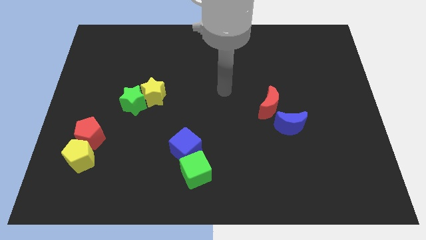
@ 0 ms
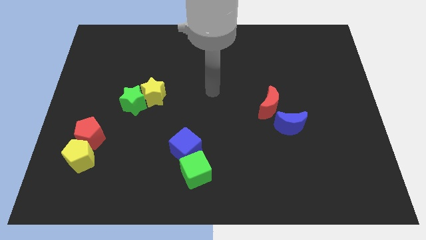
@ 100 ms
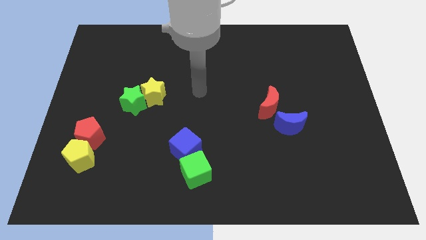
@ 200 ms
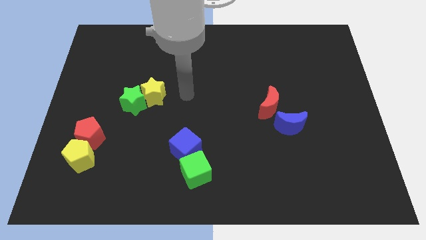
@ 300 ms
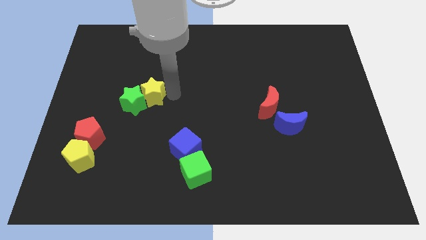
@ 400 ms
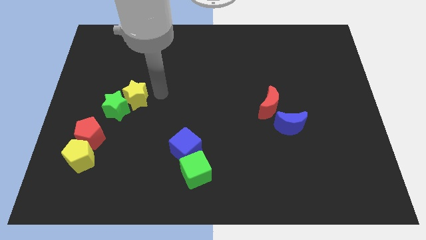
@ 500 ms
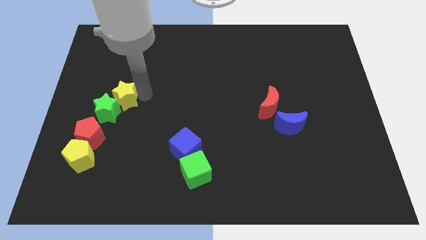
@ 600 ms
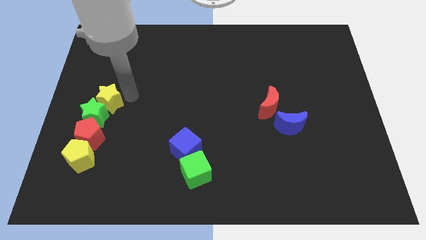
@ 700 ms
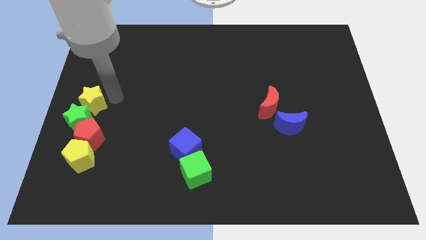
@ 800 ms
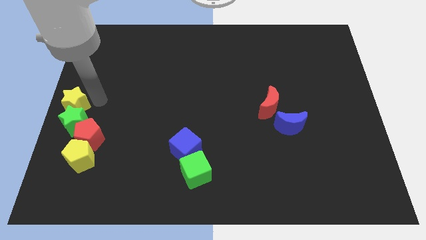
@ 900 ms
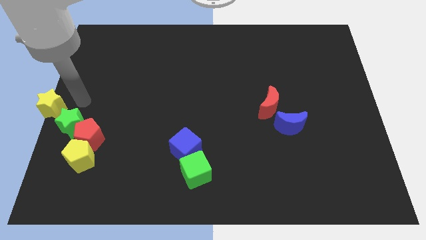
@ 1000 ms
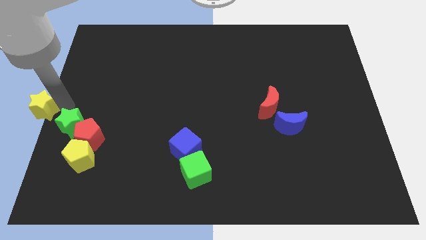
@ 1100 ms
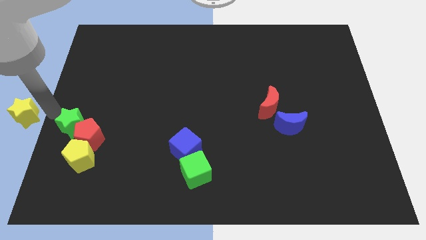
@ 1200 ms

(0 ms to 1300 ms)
move the green star away from the yellow star

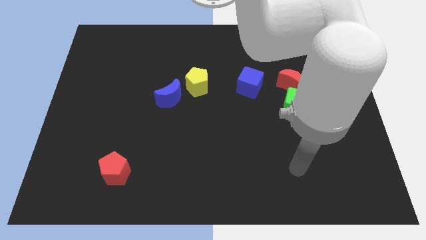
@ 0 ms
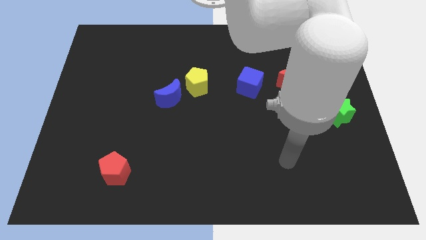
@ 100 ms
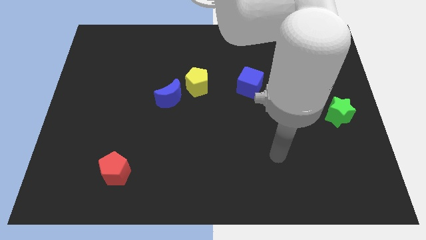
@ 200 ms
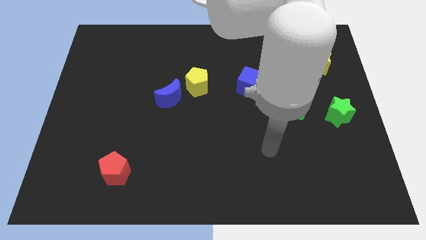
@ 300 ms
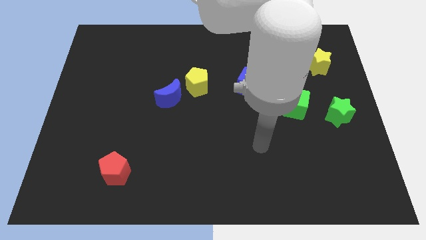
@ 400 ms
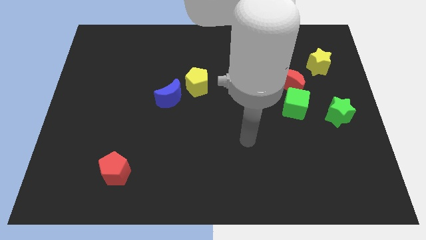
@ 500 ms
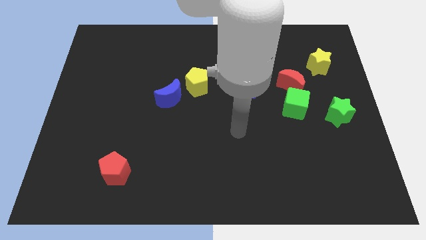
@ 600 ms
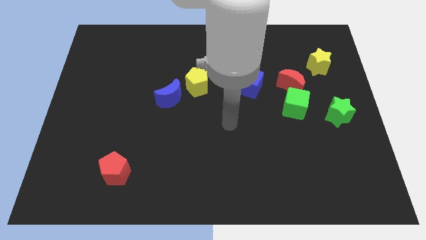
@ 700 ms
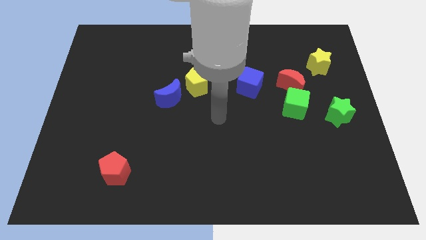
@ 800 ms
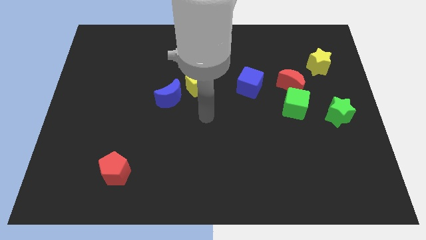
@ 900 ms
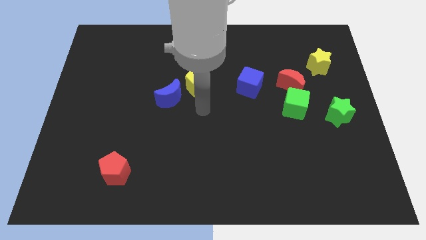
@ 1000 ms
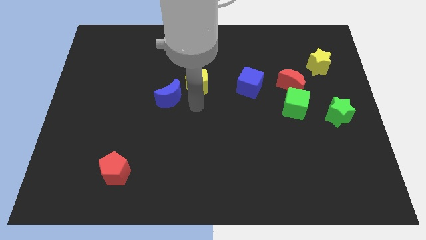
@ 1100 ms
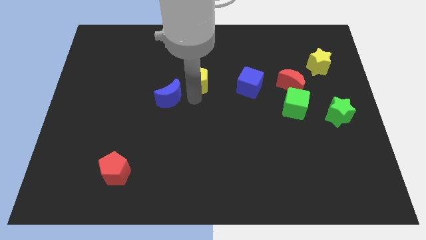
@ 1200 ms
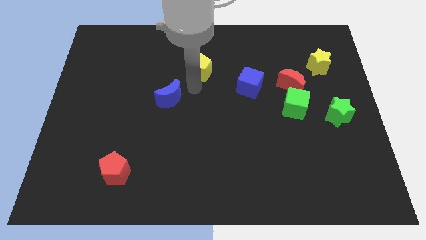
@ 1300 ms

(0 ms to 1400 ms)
pull the blue moon apart from the yellow pentagon

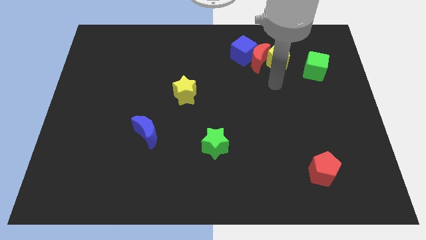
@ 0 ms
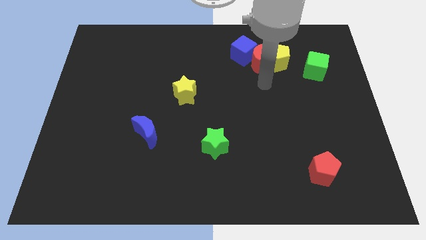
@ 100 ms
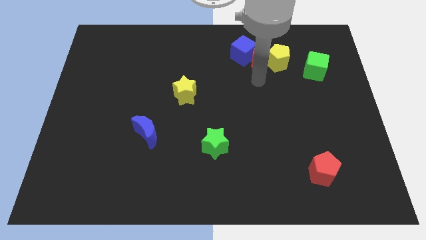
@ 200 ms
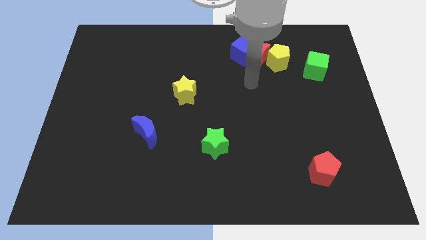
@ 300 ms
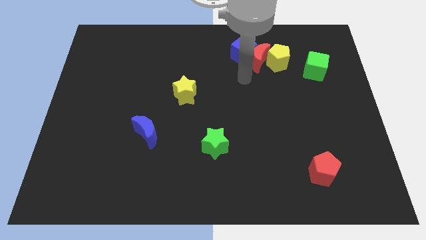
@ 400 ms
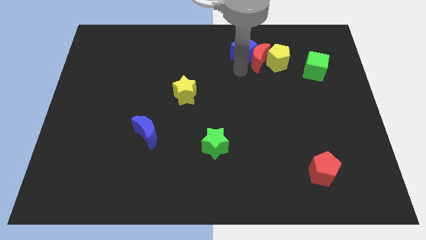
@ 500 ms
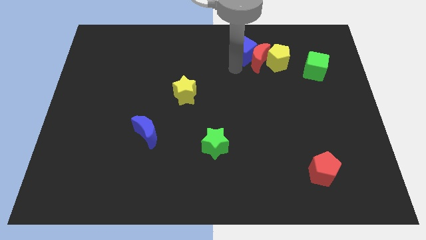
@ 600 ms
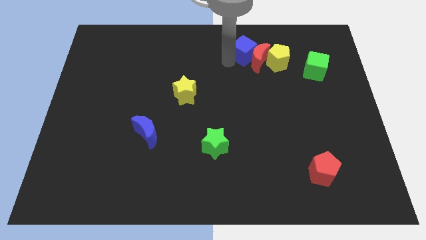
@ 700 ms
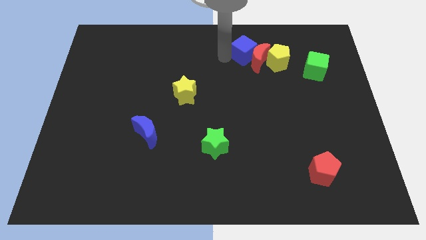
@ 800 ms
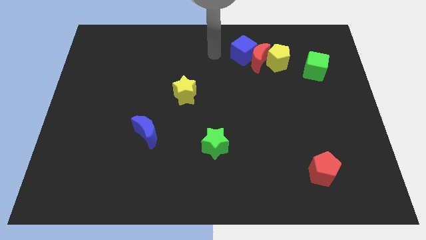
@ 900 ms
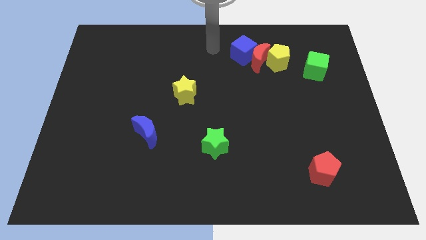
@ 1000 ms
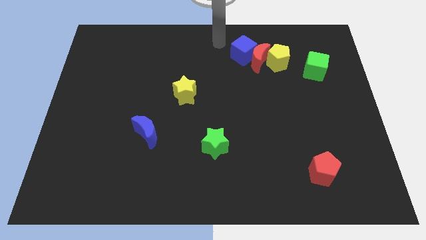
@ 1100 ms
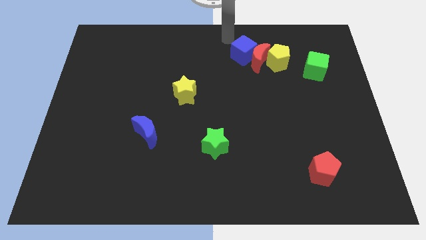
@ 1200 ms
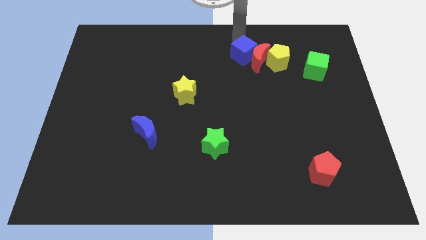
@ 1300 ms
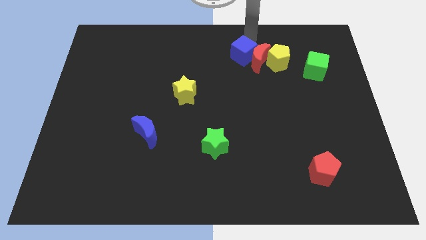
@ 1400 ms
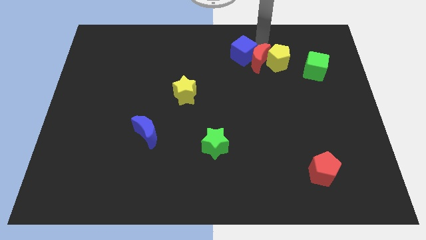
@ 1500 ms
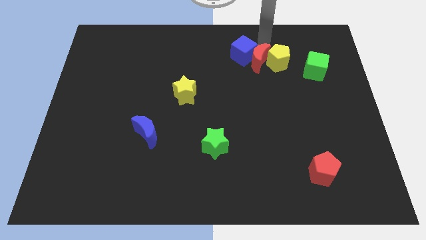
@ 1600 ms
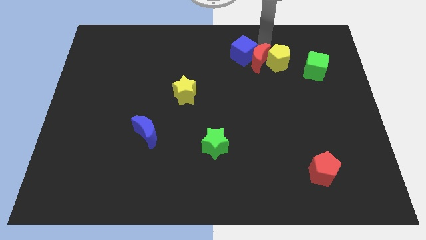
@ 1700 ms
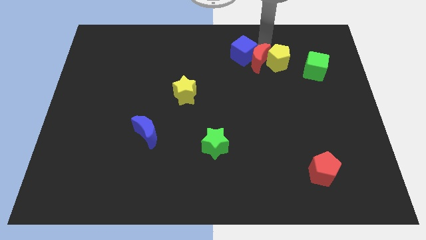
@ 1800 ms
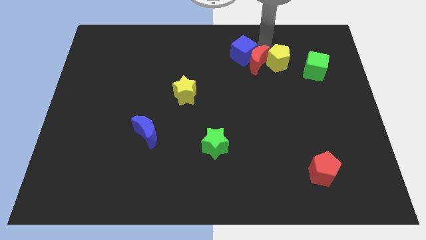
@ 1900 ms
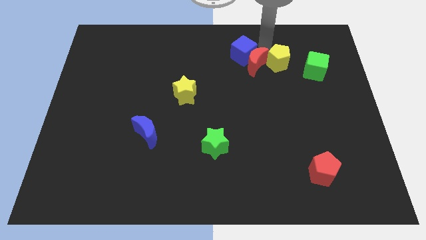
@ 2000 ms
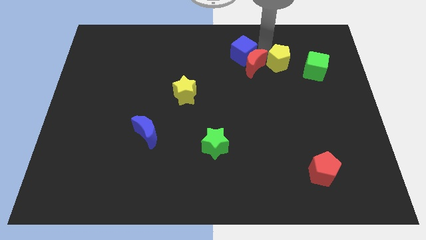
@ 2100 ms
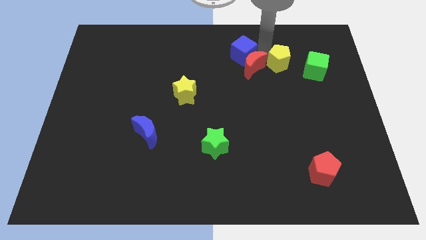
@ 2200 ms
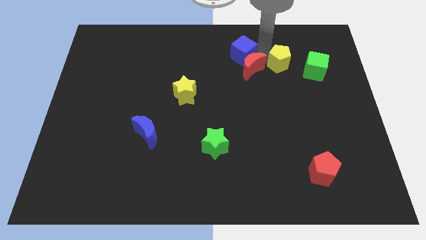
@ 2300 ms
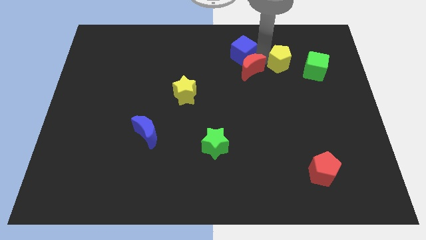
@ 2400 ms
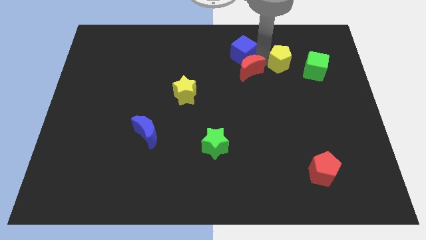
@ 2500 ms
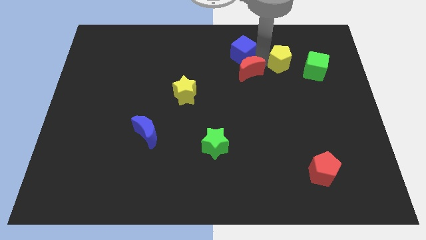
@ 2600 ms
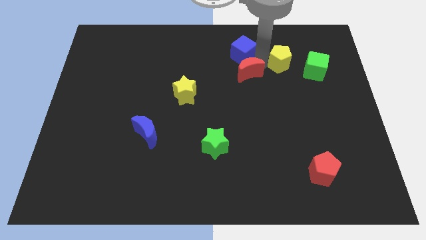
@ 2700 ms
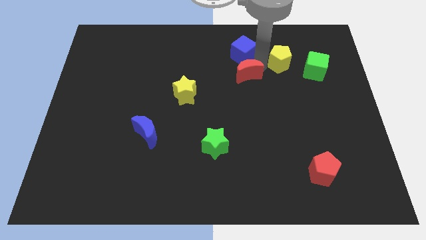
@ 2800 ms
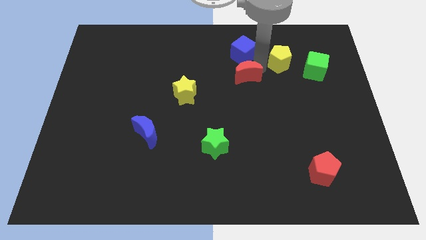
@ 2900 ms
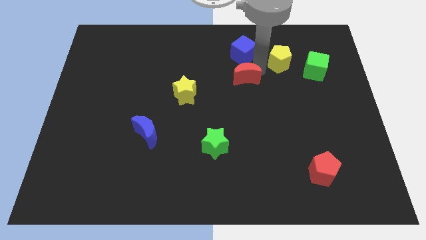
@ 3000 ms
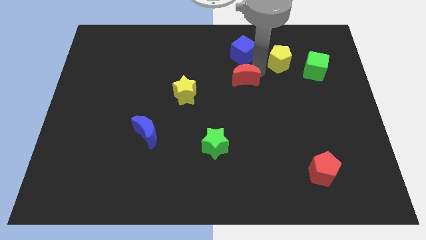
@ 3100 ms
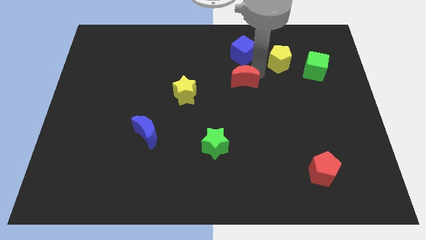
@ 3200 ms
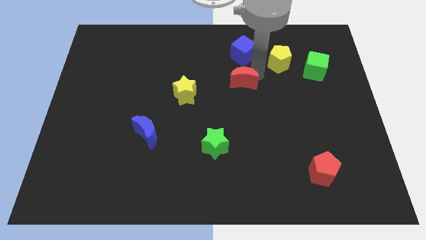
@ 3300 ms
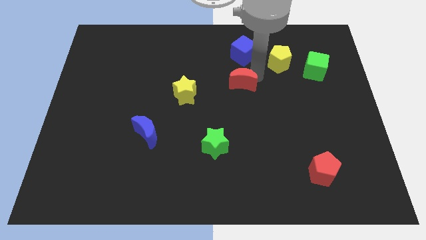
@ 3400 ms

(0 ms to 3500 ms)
move the red moon away from the blue cube and yellow pentagon

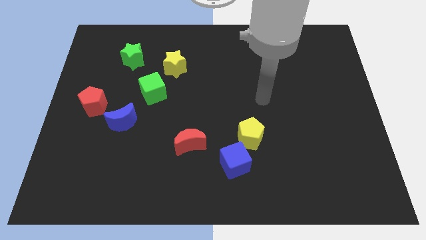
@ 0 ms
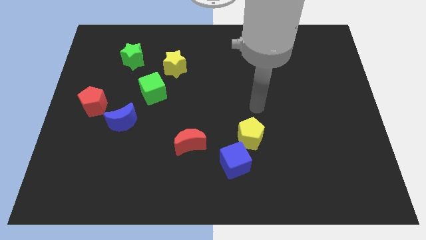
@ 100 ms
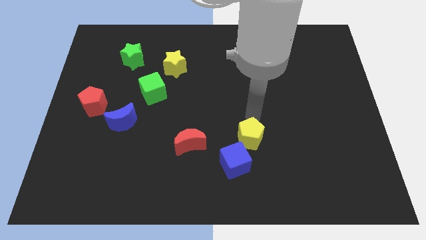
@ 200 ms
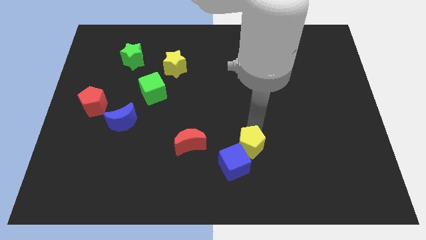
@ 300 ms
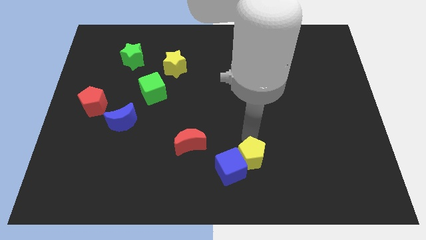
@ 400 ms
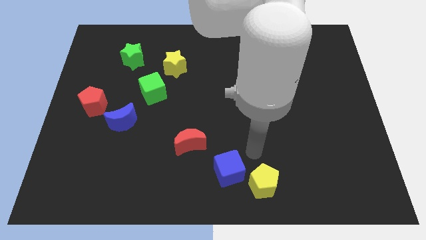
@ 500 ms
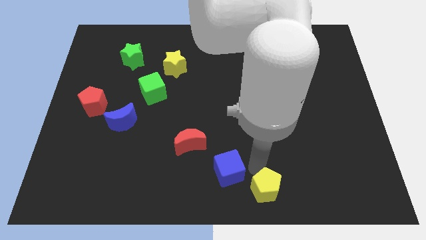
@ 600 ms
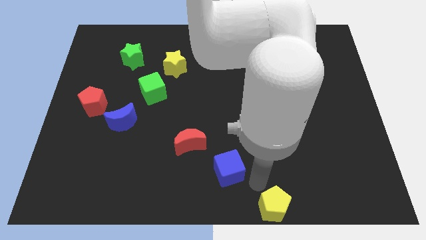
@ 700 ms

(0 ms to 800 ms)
move the blue cube away from the yellow pentagon

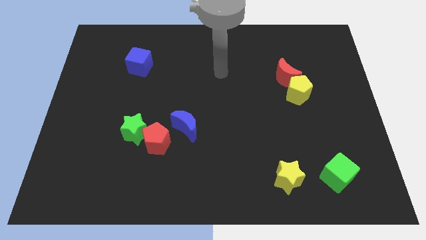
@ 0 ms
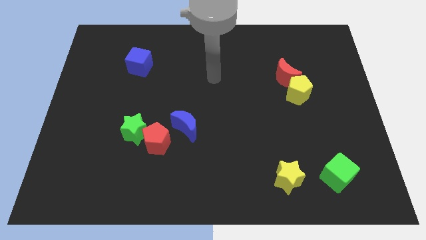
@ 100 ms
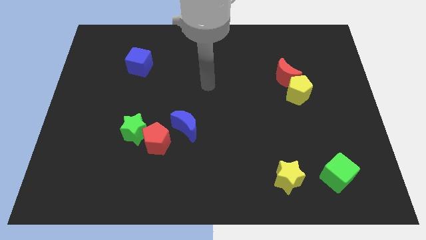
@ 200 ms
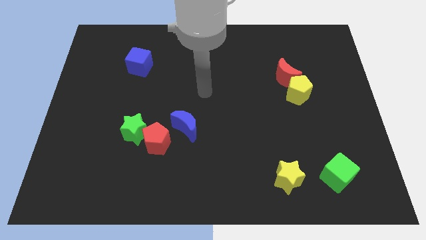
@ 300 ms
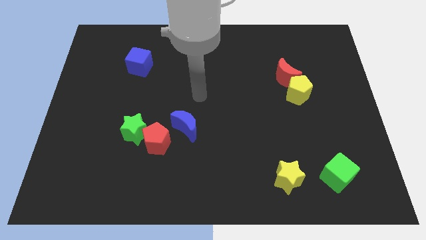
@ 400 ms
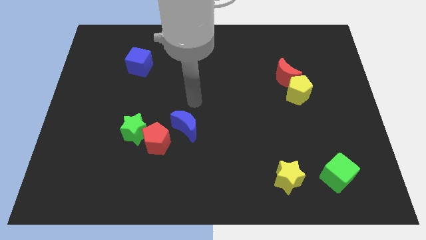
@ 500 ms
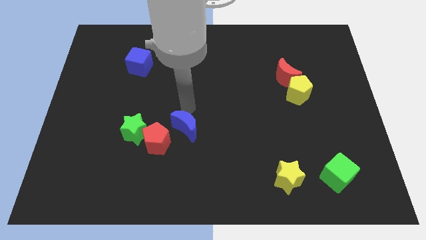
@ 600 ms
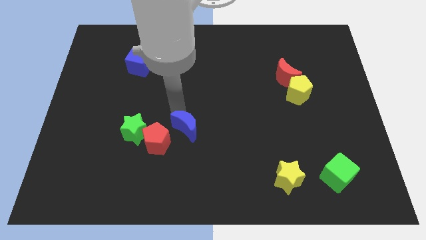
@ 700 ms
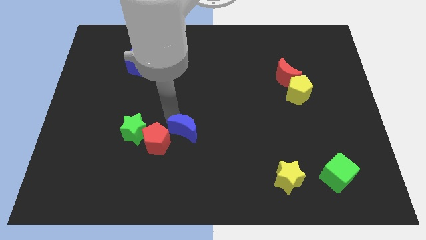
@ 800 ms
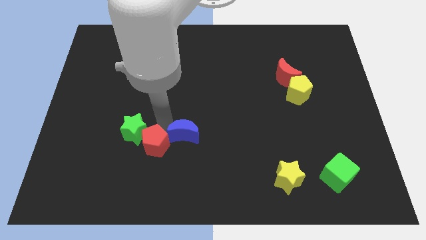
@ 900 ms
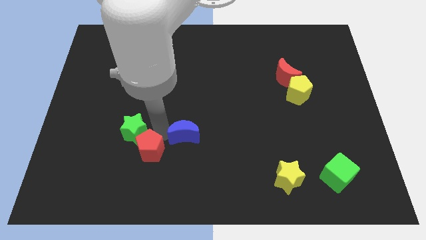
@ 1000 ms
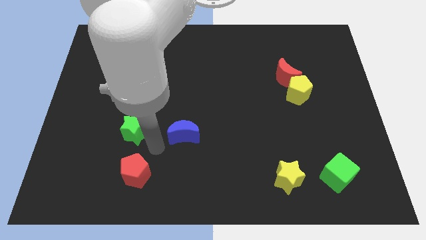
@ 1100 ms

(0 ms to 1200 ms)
pull the green star apart from the red pentagon

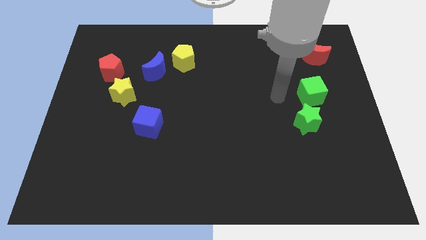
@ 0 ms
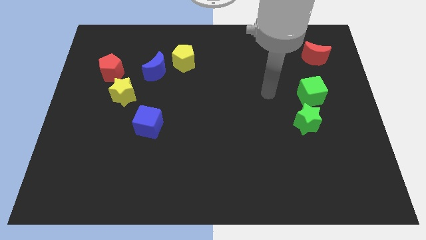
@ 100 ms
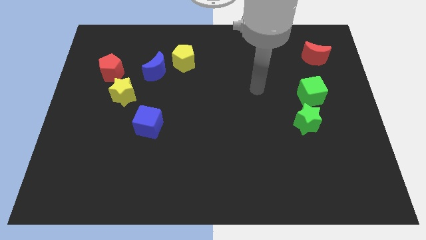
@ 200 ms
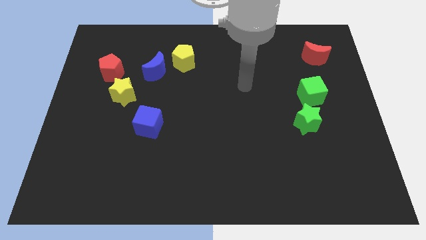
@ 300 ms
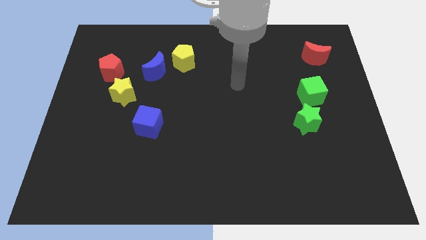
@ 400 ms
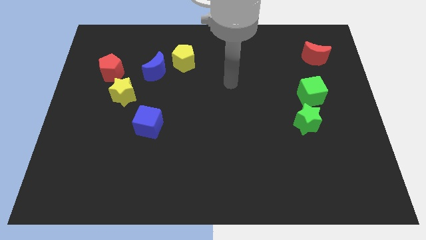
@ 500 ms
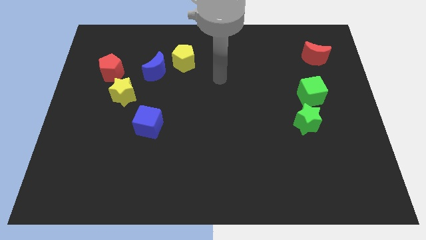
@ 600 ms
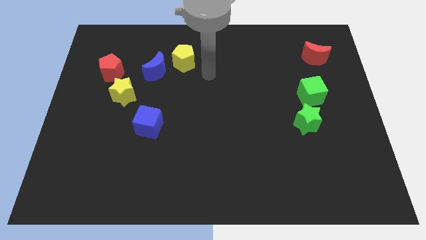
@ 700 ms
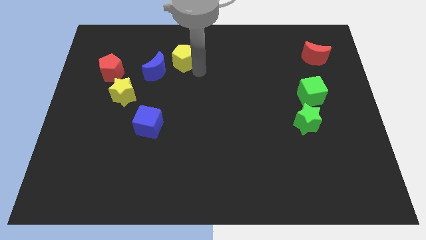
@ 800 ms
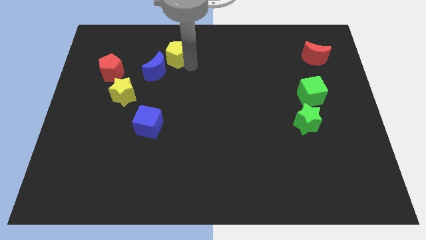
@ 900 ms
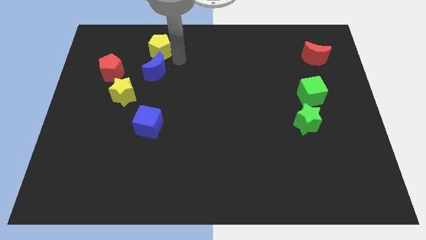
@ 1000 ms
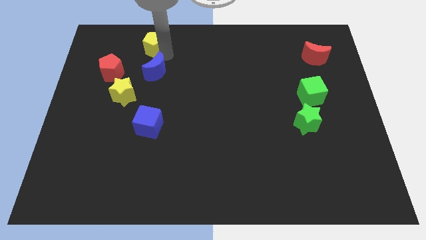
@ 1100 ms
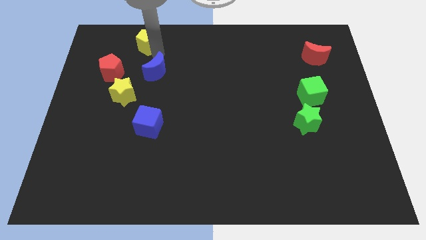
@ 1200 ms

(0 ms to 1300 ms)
move the blue moon away from the yellow pentagon
